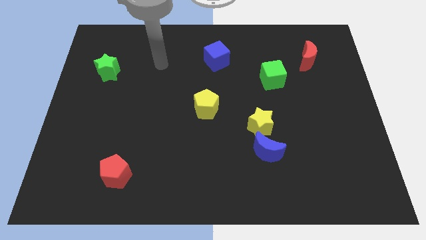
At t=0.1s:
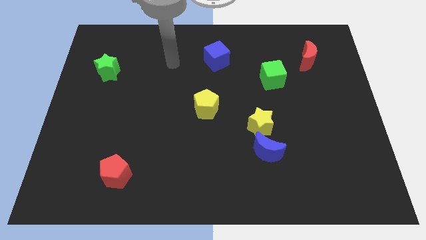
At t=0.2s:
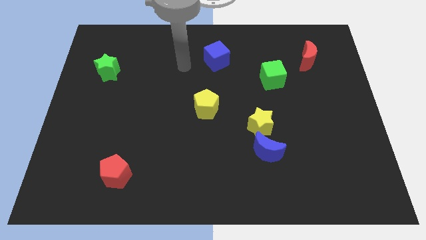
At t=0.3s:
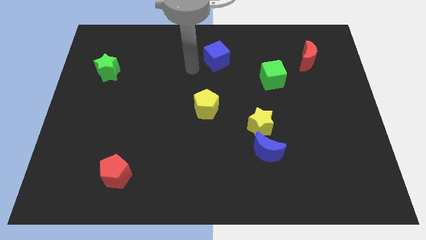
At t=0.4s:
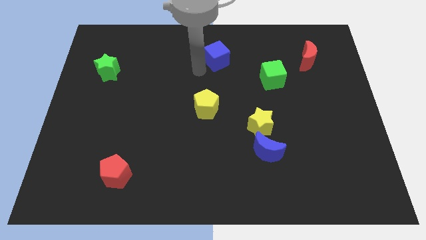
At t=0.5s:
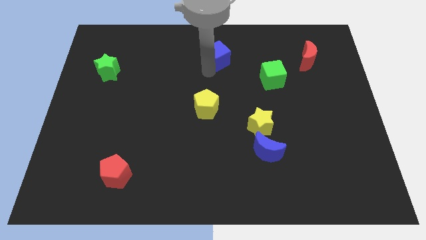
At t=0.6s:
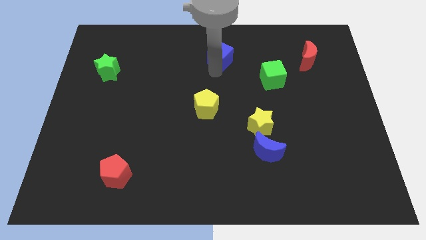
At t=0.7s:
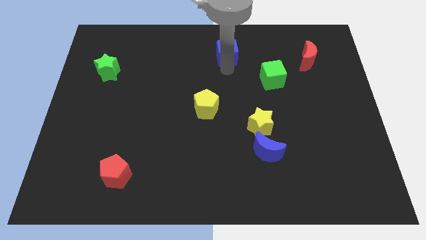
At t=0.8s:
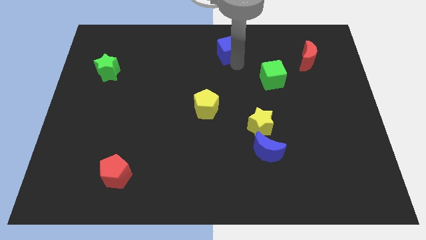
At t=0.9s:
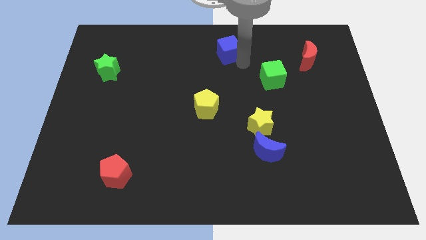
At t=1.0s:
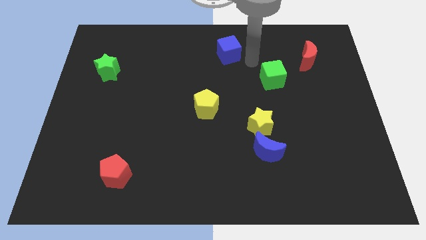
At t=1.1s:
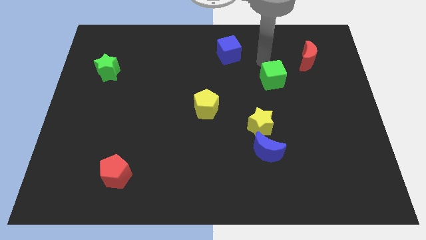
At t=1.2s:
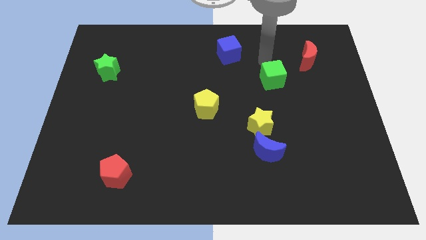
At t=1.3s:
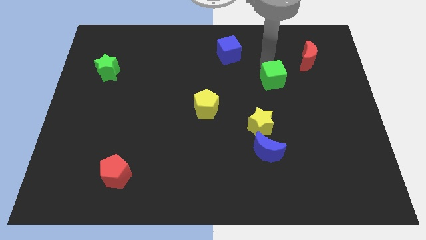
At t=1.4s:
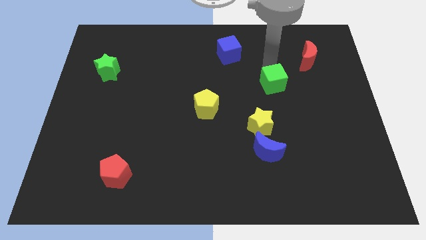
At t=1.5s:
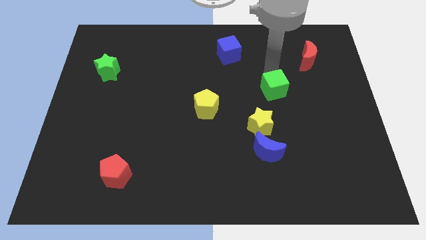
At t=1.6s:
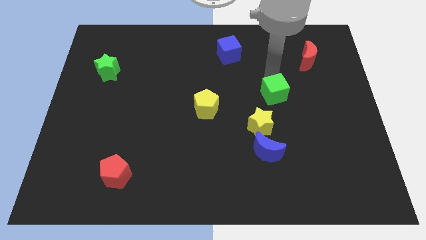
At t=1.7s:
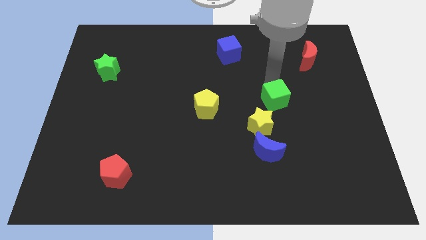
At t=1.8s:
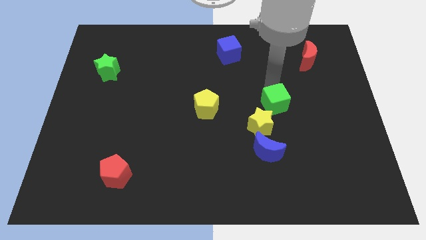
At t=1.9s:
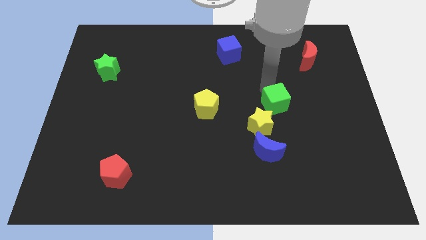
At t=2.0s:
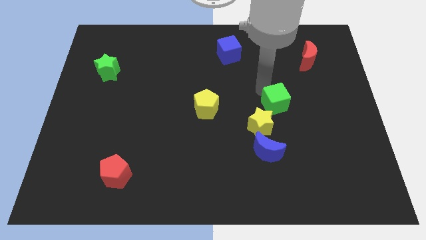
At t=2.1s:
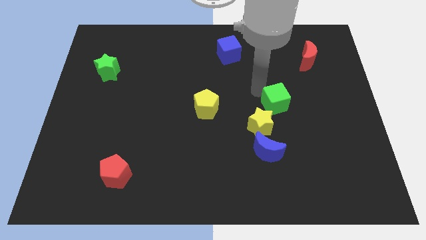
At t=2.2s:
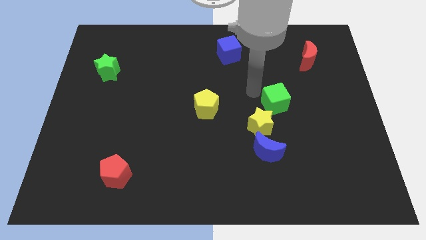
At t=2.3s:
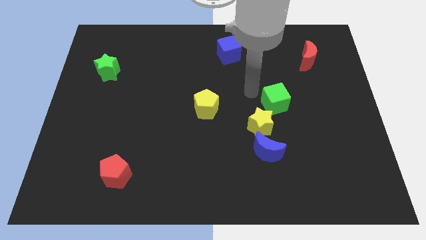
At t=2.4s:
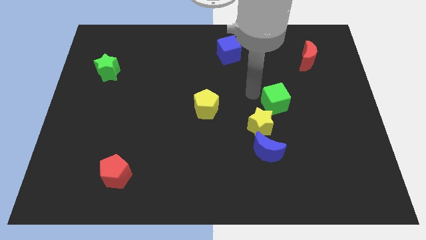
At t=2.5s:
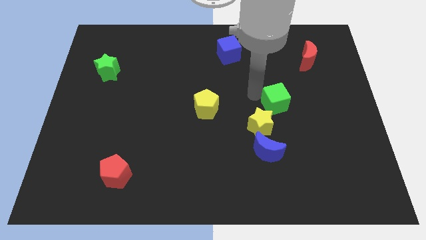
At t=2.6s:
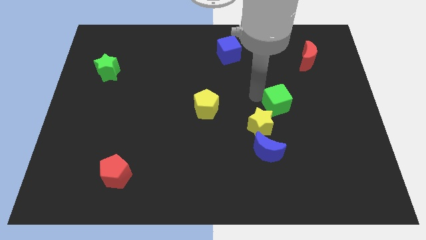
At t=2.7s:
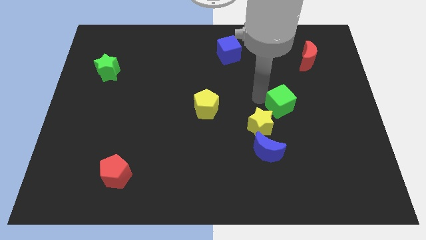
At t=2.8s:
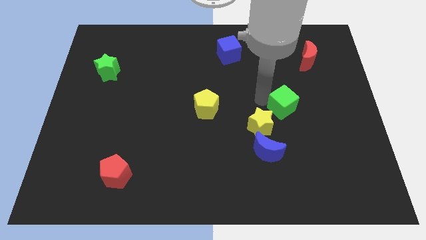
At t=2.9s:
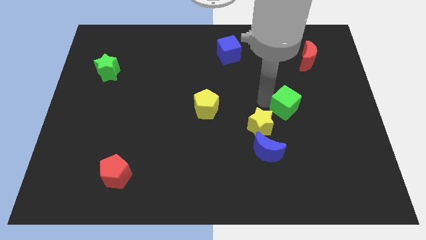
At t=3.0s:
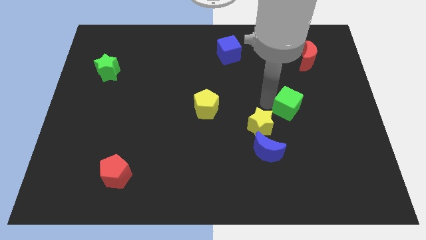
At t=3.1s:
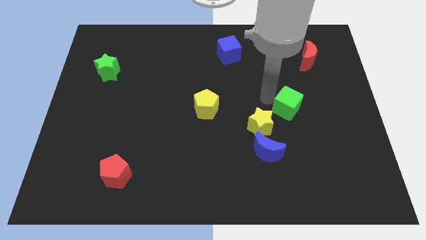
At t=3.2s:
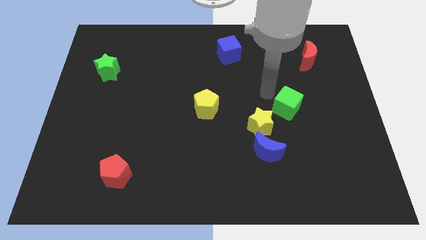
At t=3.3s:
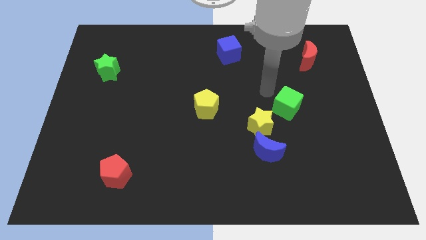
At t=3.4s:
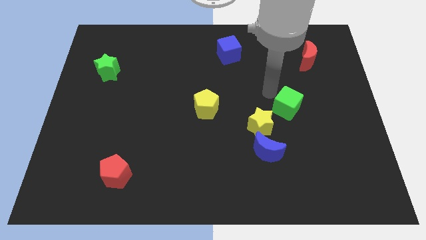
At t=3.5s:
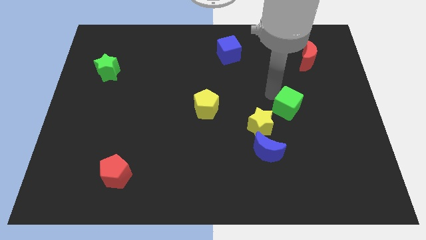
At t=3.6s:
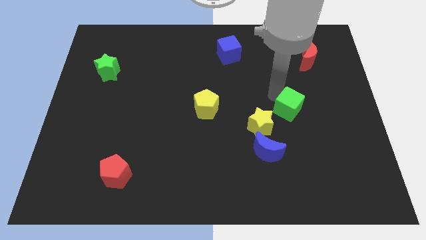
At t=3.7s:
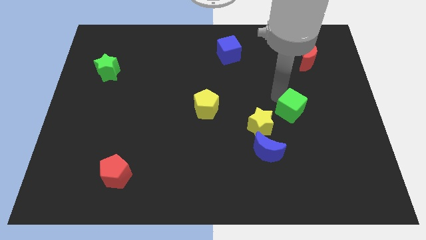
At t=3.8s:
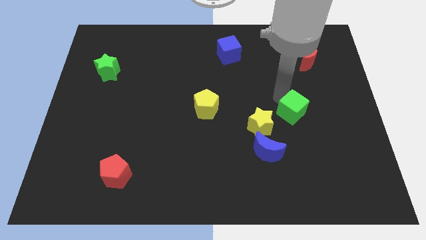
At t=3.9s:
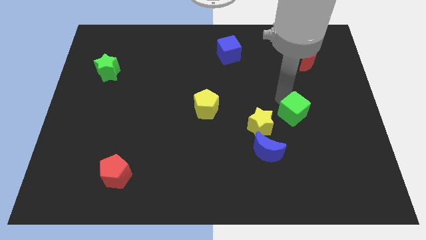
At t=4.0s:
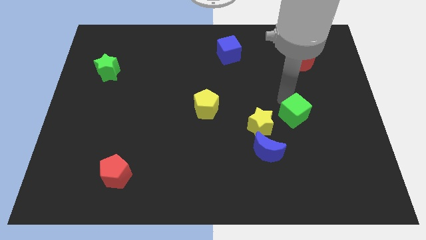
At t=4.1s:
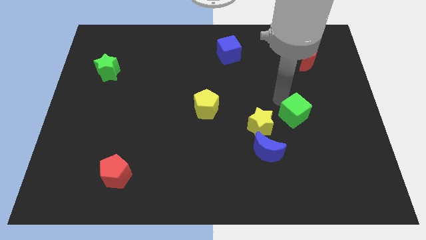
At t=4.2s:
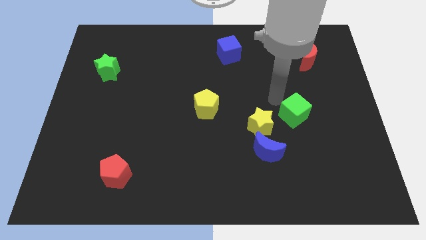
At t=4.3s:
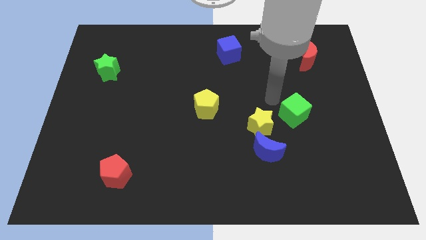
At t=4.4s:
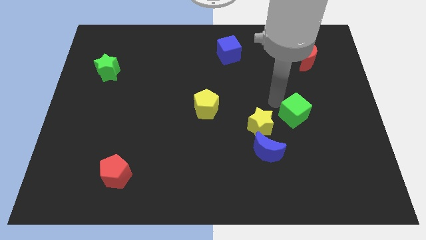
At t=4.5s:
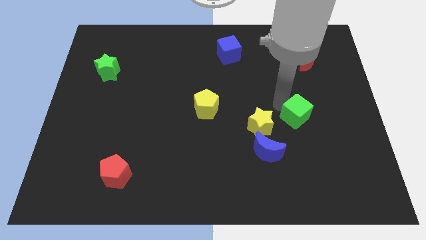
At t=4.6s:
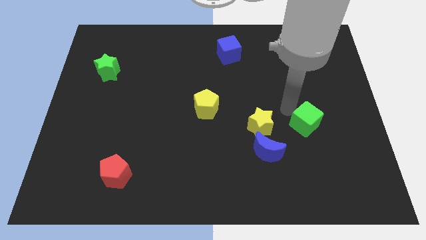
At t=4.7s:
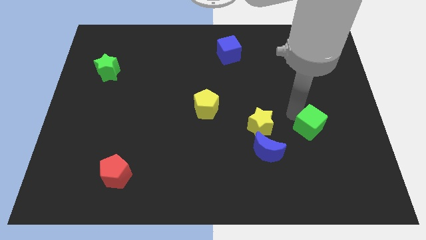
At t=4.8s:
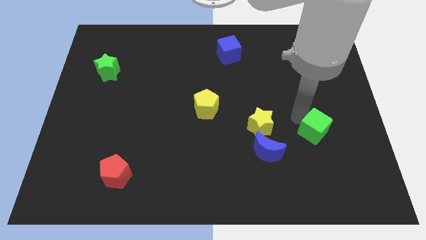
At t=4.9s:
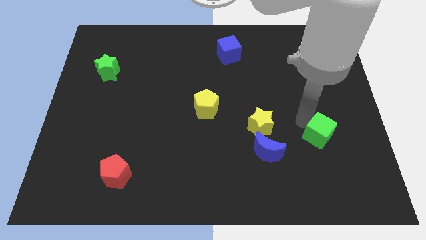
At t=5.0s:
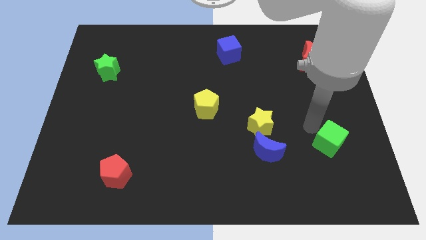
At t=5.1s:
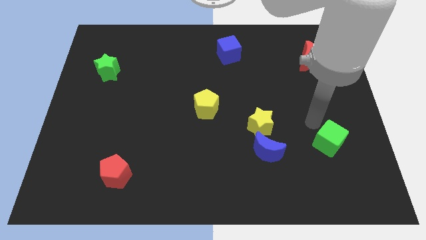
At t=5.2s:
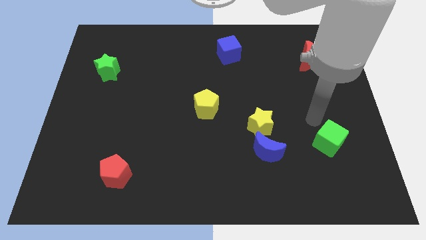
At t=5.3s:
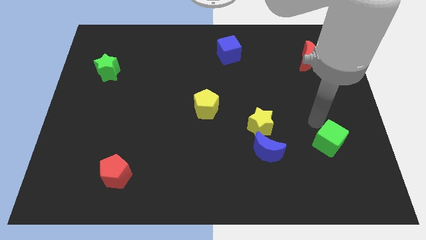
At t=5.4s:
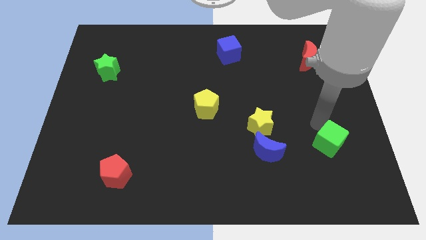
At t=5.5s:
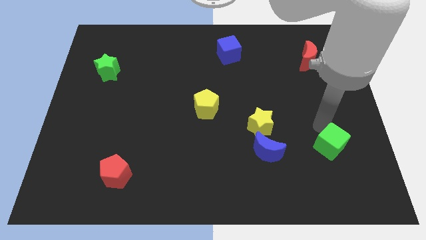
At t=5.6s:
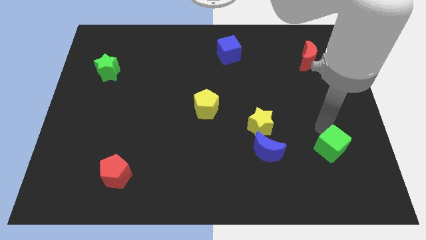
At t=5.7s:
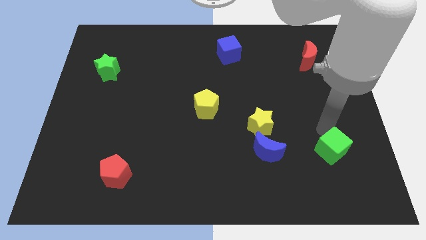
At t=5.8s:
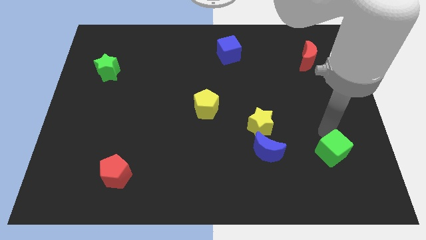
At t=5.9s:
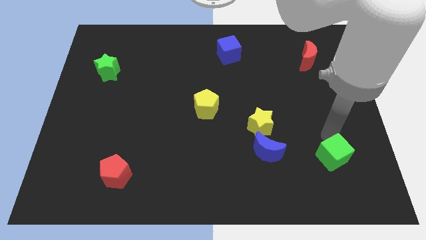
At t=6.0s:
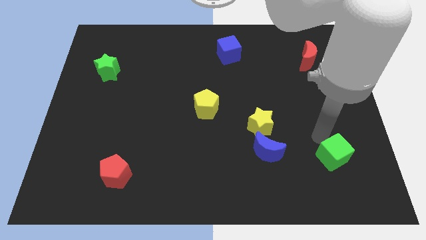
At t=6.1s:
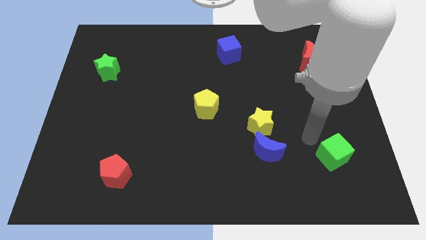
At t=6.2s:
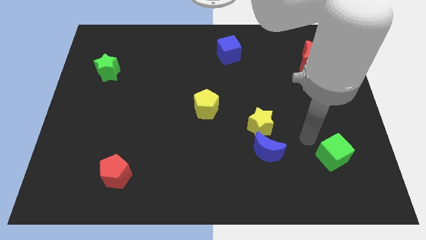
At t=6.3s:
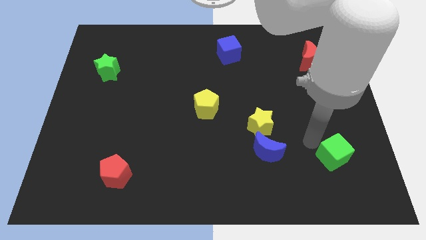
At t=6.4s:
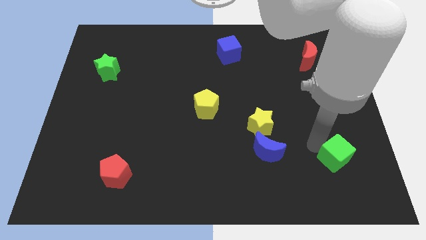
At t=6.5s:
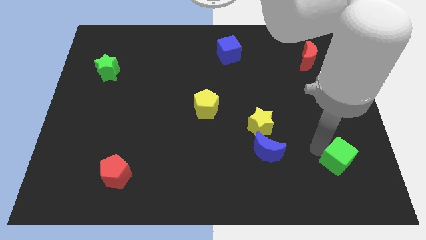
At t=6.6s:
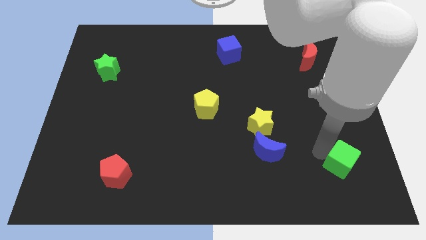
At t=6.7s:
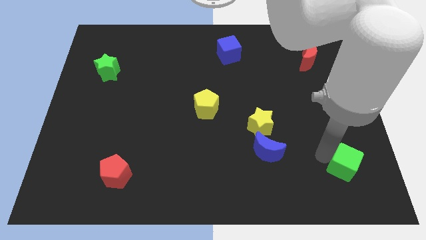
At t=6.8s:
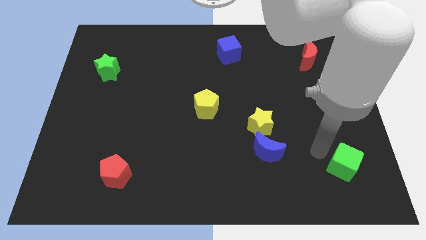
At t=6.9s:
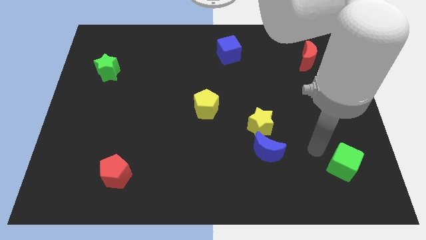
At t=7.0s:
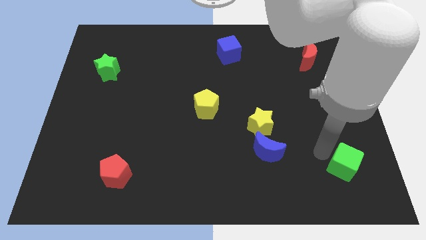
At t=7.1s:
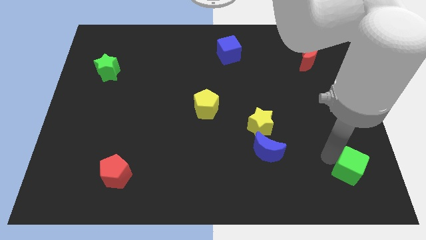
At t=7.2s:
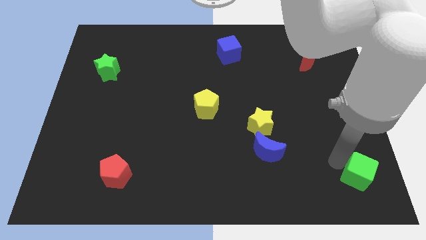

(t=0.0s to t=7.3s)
put the green cube to the bottom right
